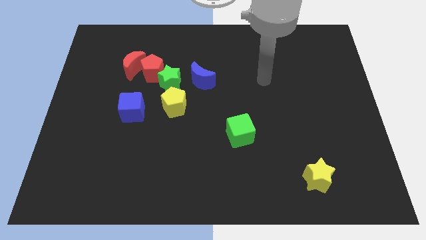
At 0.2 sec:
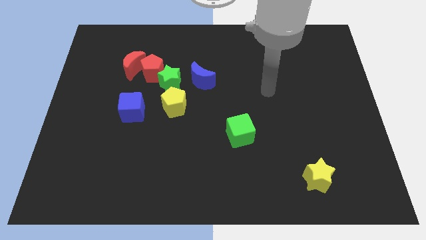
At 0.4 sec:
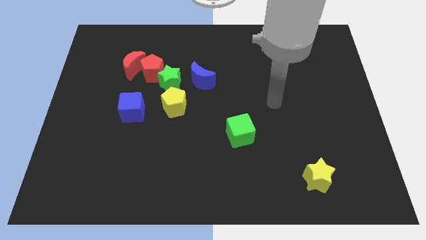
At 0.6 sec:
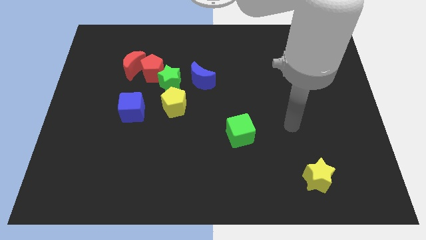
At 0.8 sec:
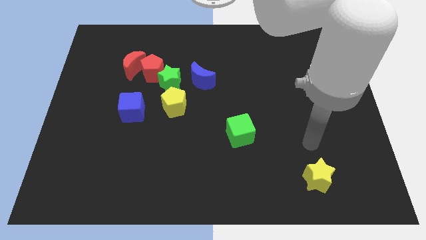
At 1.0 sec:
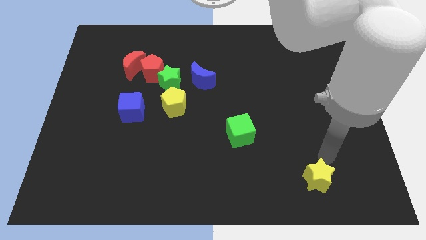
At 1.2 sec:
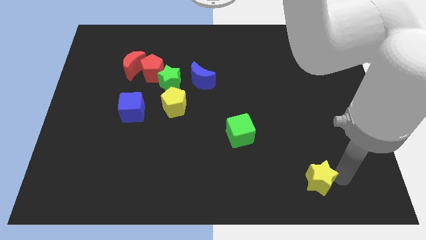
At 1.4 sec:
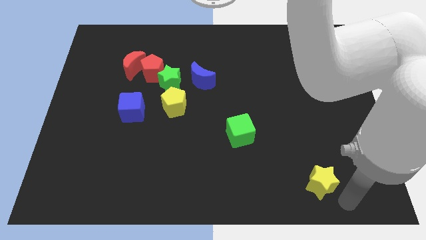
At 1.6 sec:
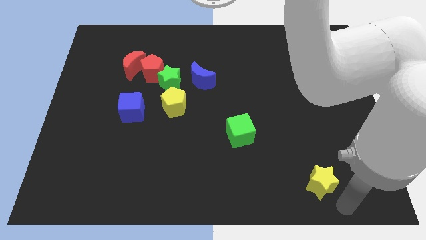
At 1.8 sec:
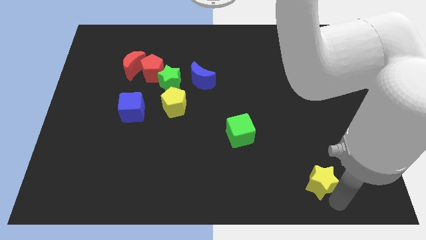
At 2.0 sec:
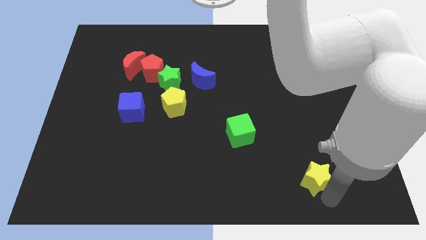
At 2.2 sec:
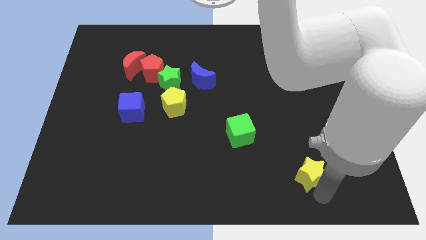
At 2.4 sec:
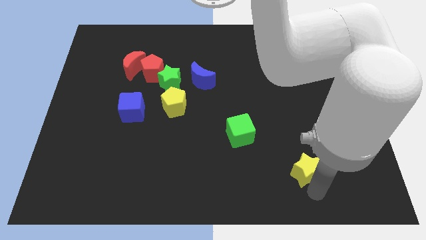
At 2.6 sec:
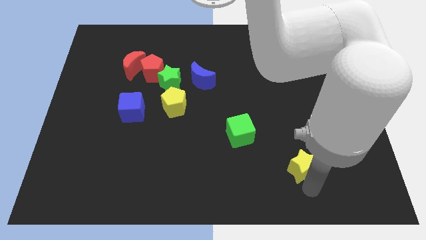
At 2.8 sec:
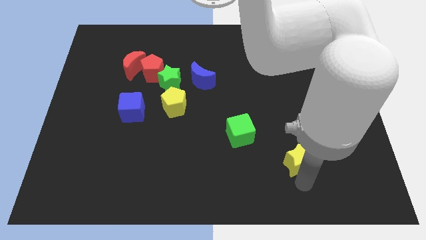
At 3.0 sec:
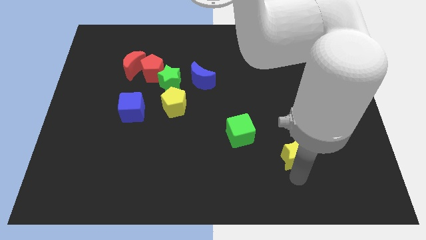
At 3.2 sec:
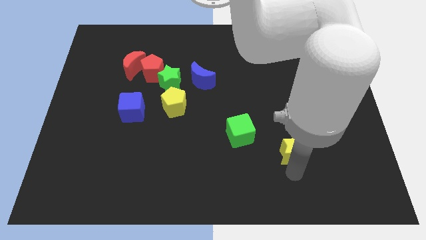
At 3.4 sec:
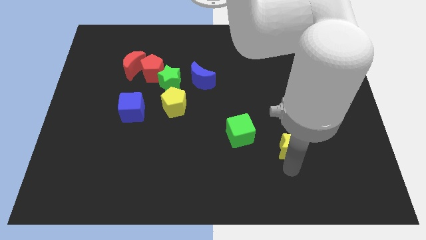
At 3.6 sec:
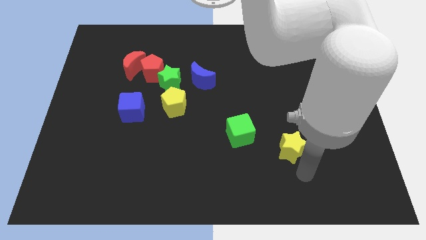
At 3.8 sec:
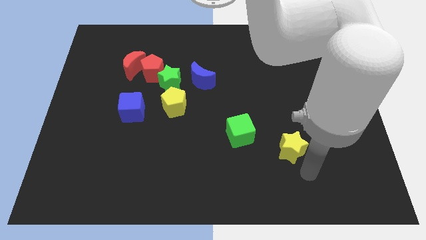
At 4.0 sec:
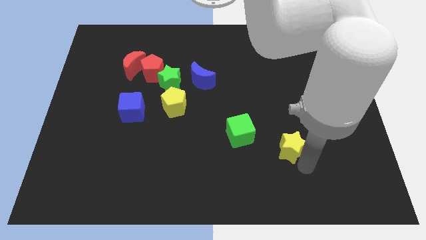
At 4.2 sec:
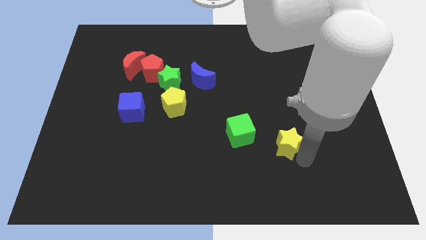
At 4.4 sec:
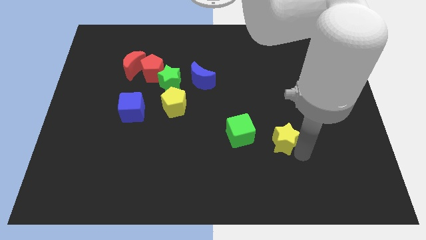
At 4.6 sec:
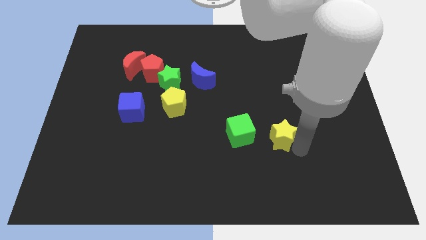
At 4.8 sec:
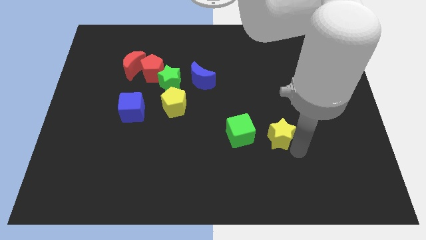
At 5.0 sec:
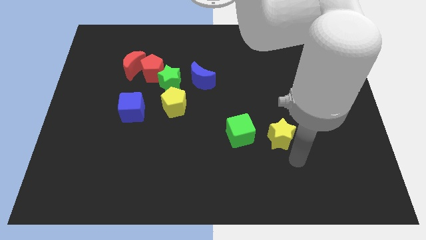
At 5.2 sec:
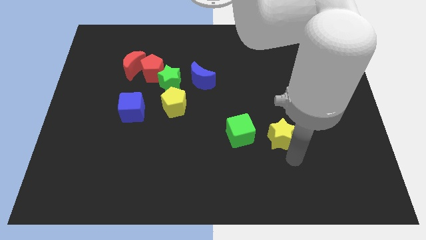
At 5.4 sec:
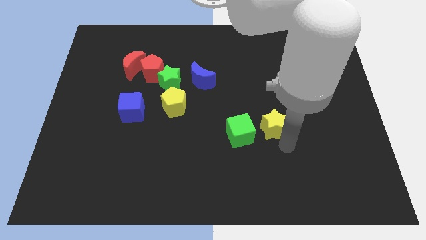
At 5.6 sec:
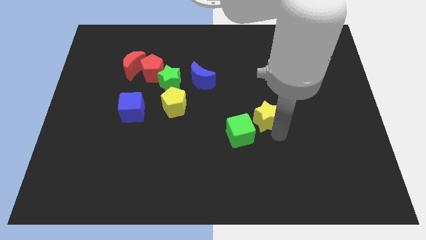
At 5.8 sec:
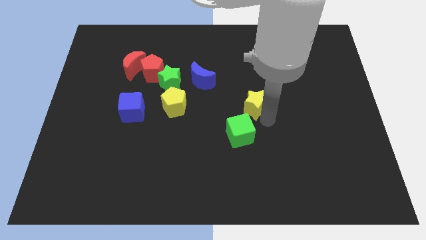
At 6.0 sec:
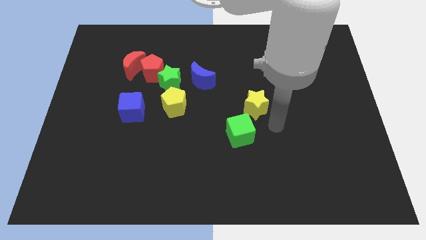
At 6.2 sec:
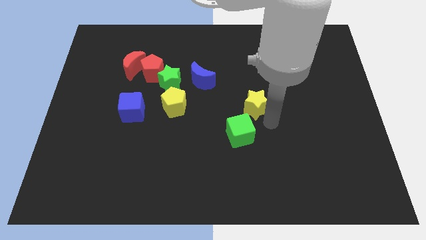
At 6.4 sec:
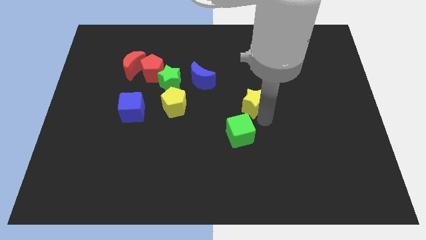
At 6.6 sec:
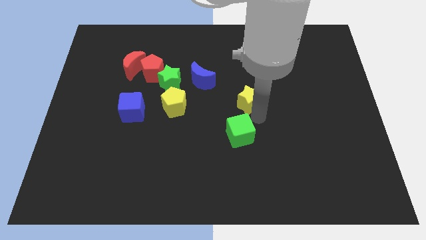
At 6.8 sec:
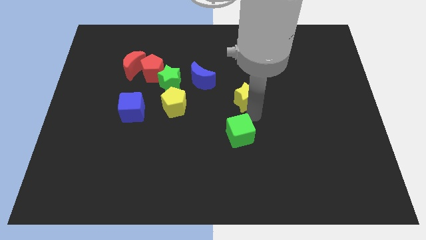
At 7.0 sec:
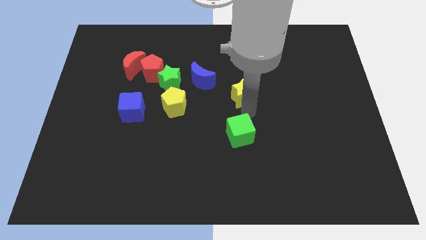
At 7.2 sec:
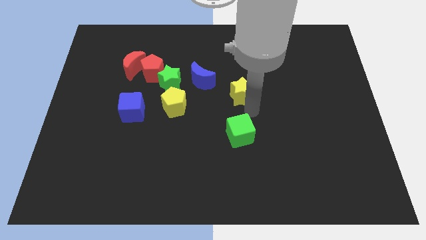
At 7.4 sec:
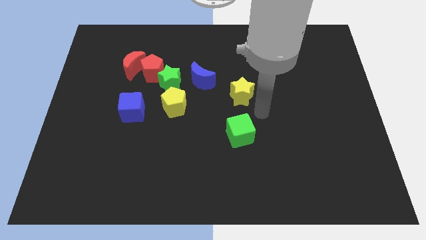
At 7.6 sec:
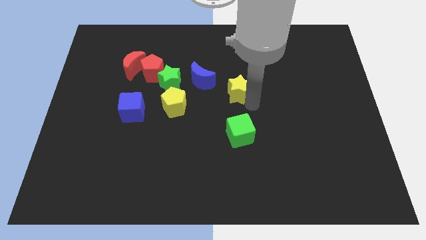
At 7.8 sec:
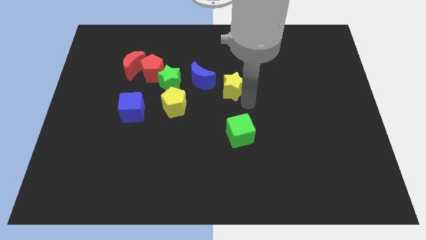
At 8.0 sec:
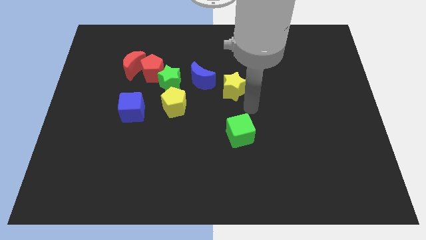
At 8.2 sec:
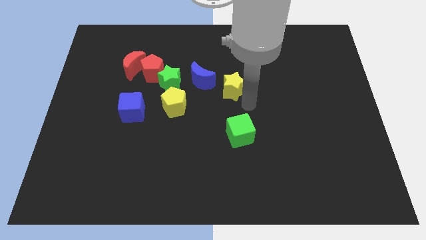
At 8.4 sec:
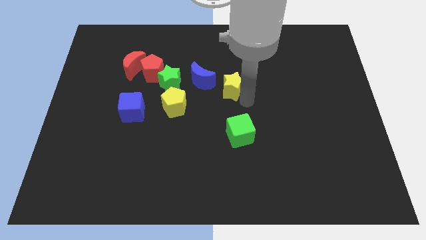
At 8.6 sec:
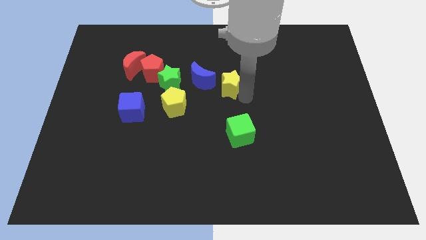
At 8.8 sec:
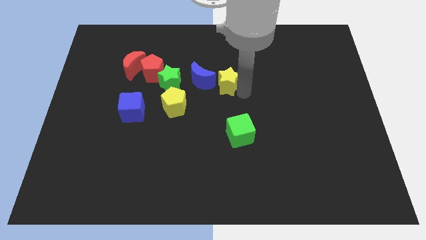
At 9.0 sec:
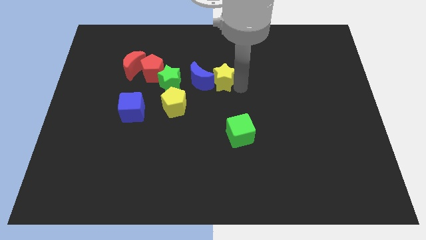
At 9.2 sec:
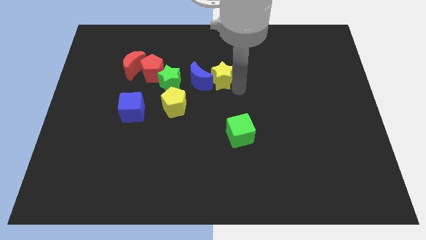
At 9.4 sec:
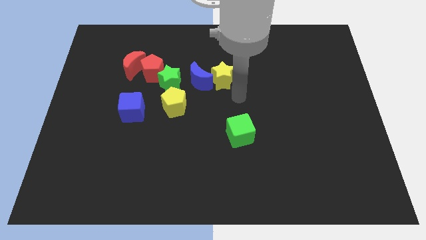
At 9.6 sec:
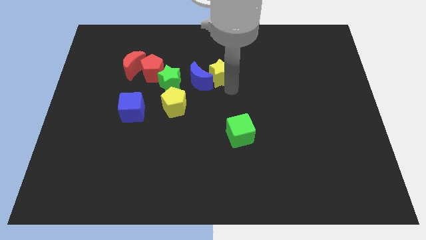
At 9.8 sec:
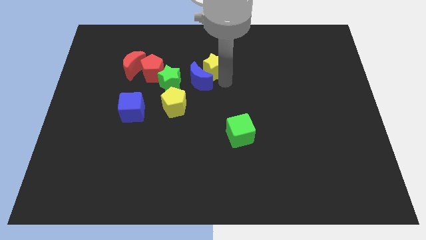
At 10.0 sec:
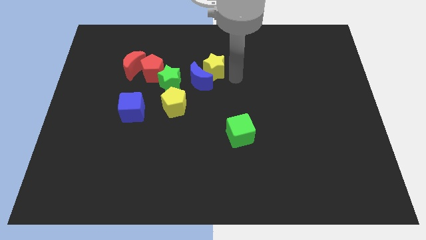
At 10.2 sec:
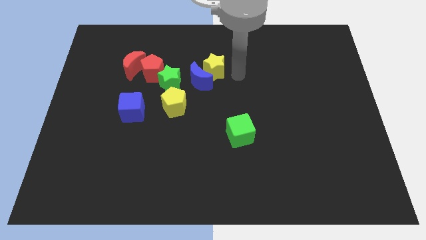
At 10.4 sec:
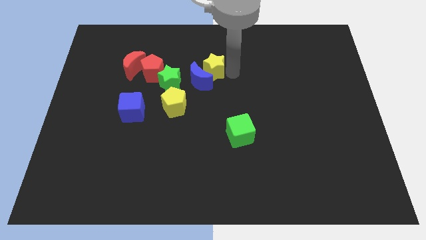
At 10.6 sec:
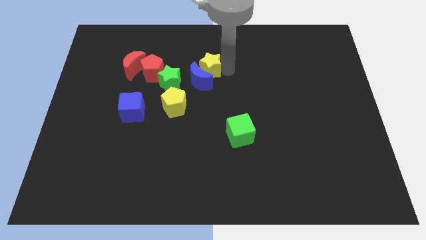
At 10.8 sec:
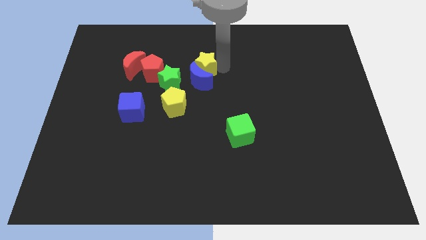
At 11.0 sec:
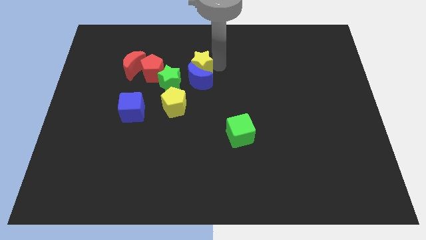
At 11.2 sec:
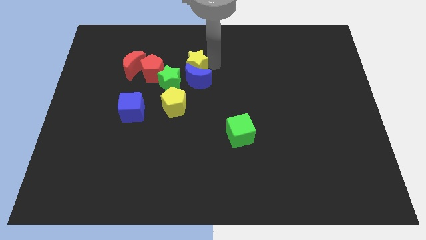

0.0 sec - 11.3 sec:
move the yellow star to the right of the red moon

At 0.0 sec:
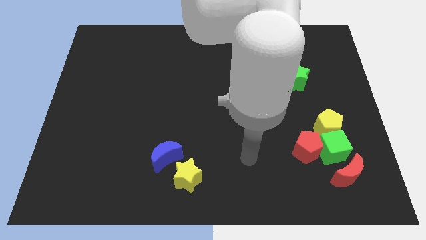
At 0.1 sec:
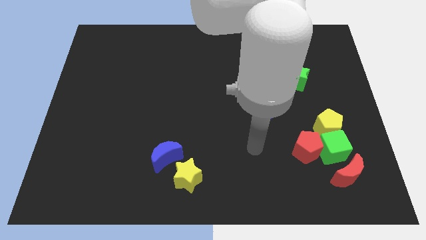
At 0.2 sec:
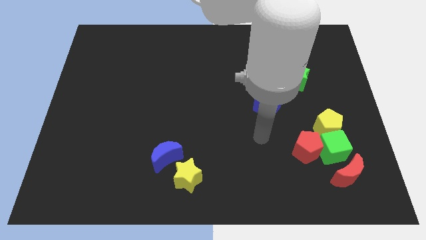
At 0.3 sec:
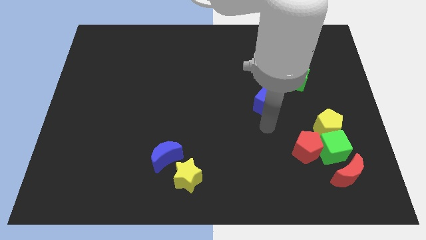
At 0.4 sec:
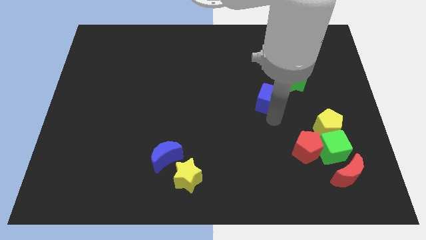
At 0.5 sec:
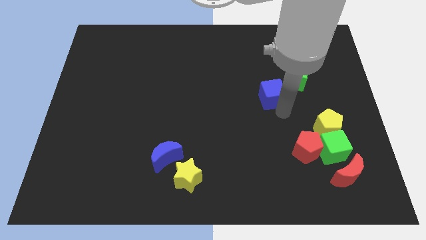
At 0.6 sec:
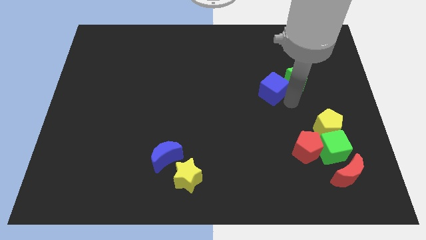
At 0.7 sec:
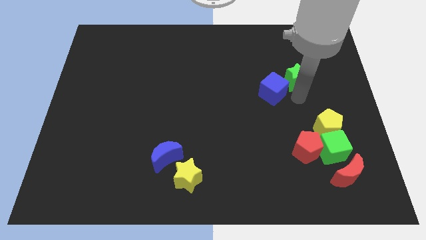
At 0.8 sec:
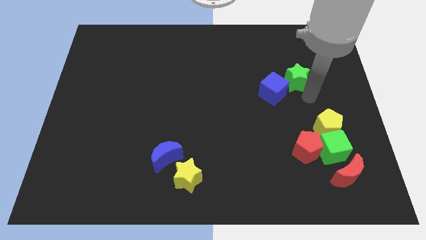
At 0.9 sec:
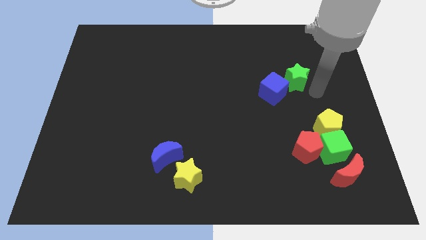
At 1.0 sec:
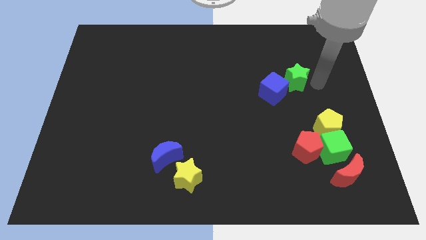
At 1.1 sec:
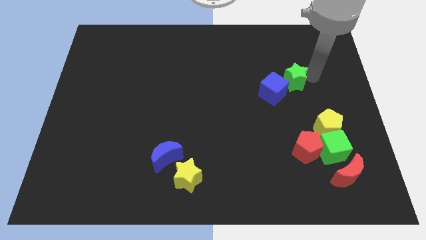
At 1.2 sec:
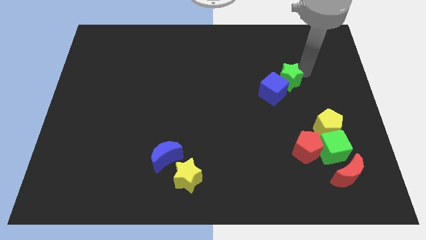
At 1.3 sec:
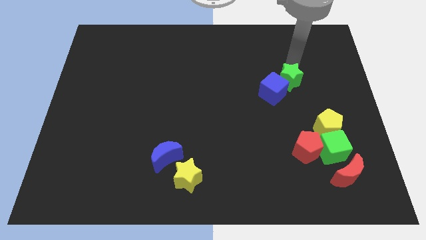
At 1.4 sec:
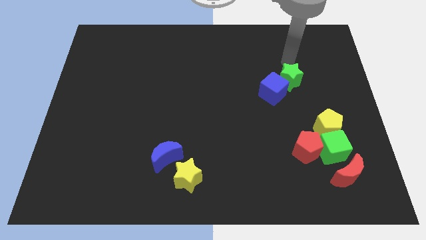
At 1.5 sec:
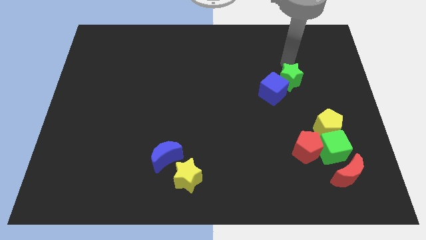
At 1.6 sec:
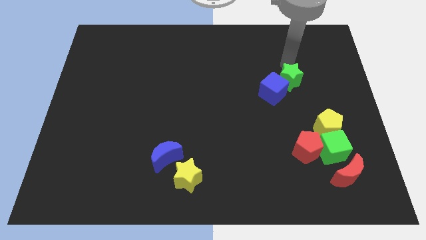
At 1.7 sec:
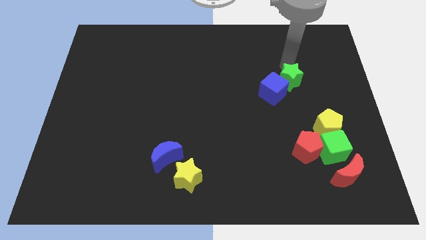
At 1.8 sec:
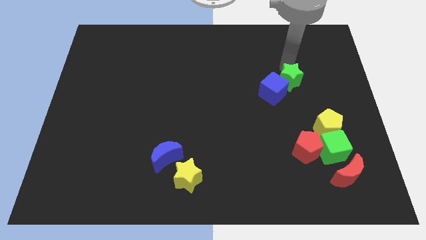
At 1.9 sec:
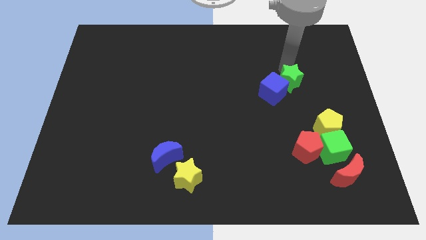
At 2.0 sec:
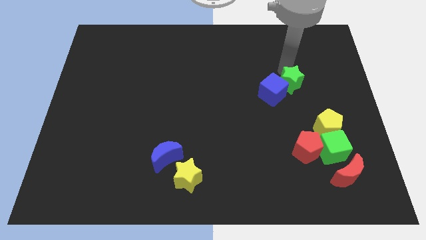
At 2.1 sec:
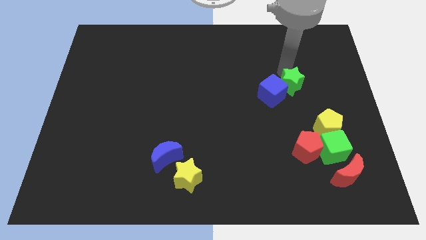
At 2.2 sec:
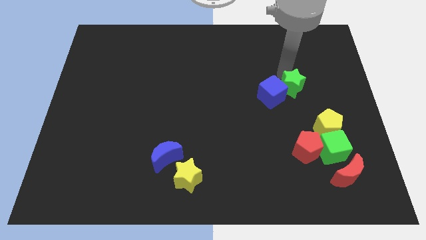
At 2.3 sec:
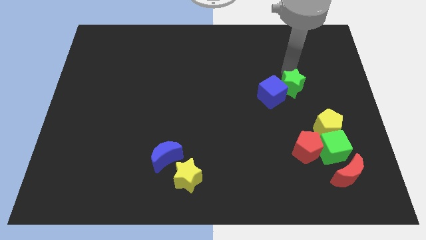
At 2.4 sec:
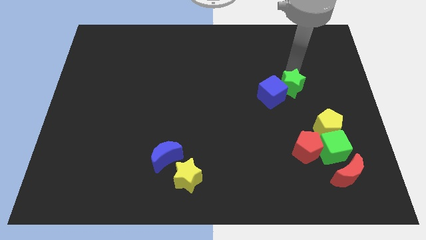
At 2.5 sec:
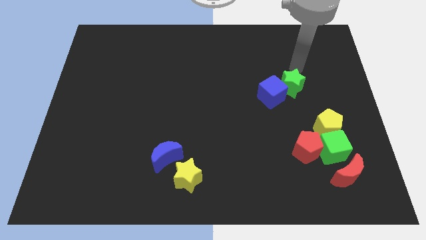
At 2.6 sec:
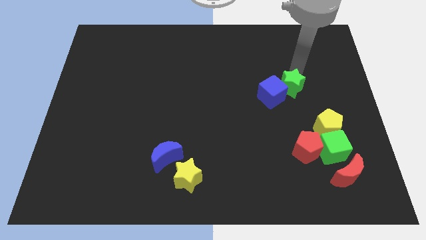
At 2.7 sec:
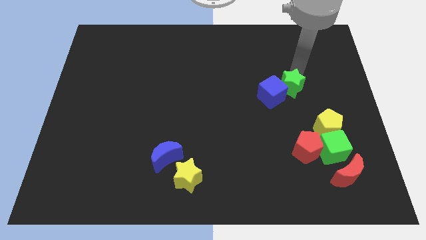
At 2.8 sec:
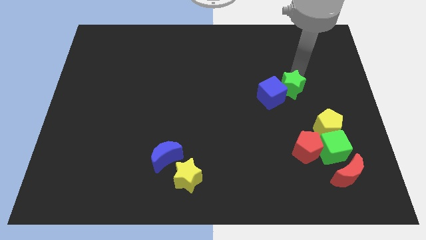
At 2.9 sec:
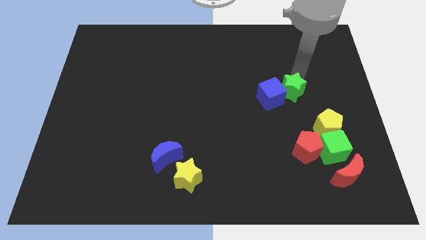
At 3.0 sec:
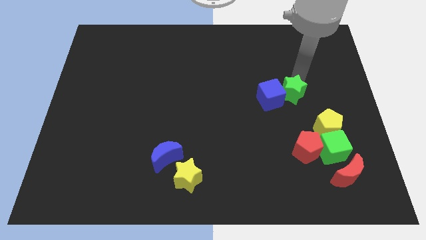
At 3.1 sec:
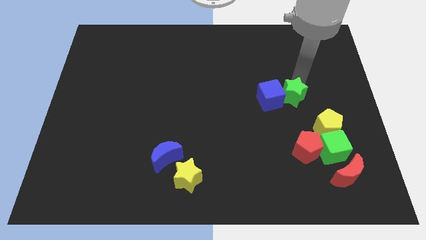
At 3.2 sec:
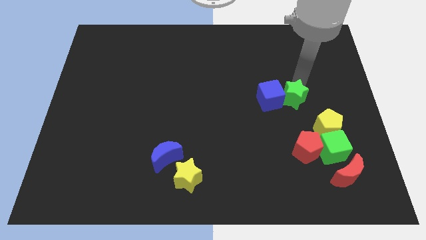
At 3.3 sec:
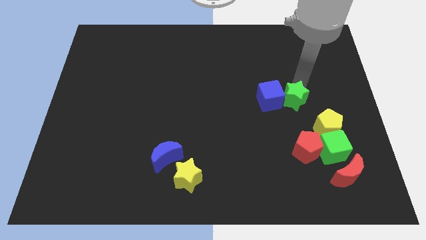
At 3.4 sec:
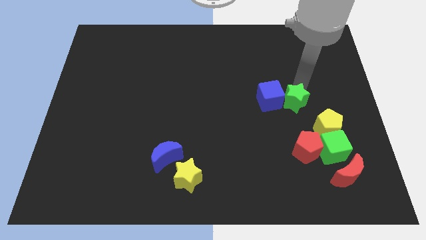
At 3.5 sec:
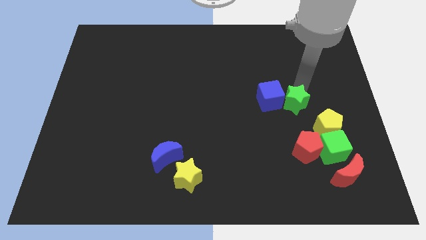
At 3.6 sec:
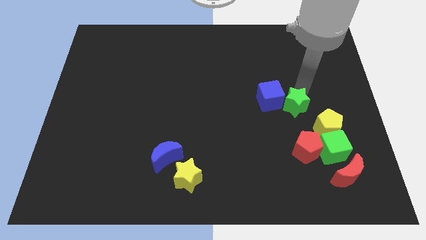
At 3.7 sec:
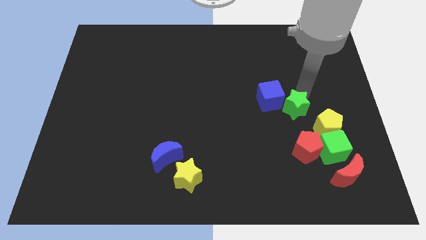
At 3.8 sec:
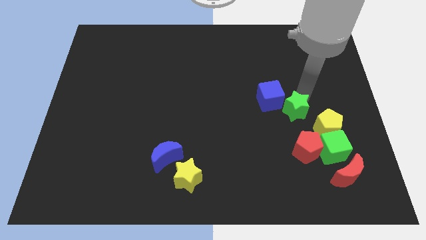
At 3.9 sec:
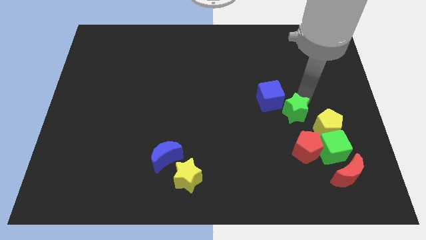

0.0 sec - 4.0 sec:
slide the green star left of the yellow pentagon
